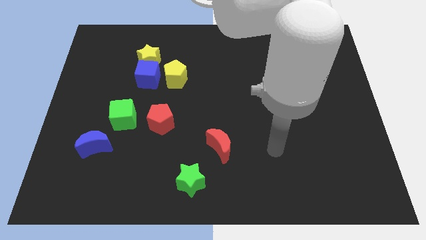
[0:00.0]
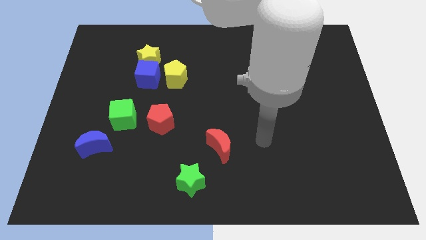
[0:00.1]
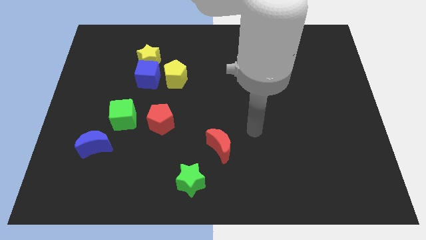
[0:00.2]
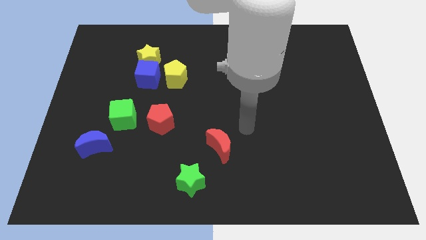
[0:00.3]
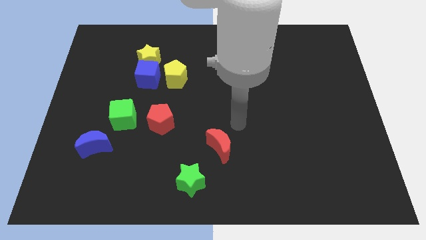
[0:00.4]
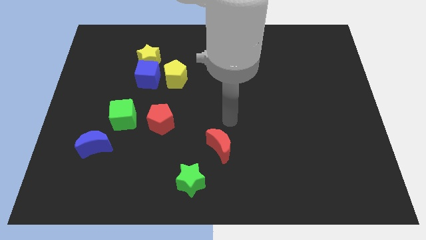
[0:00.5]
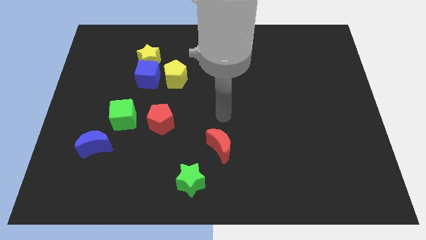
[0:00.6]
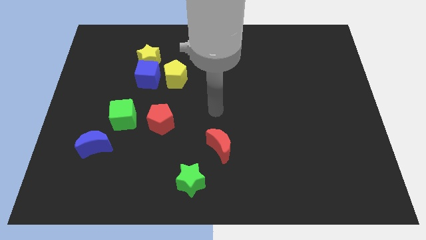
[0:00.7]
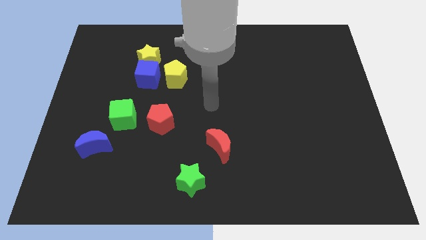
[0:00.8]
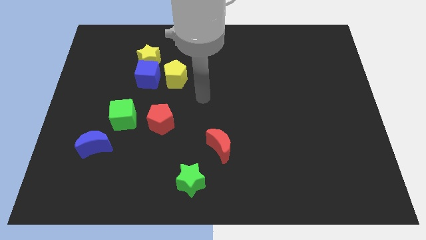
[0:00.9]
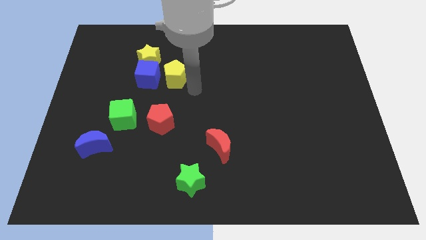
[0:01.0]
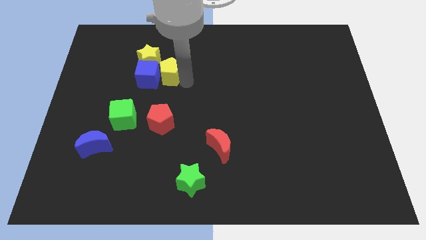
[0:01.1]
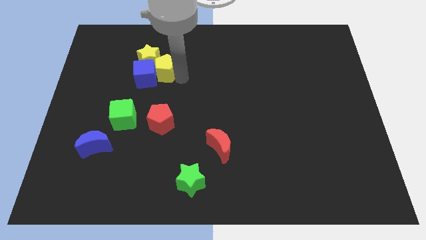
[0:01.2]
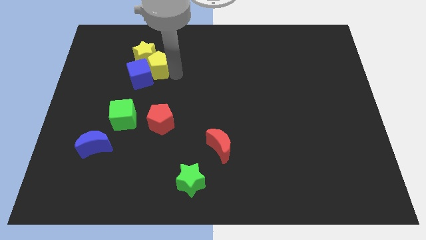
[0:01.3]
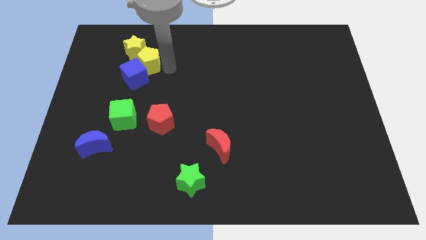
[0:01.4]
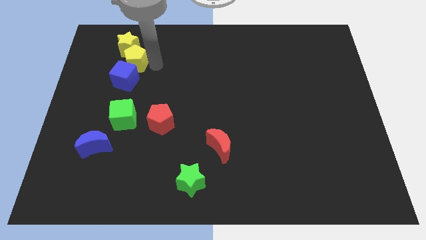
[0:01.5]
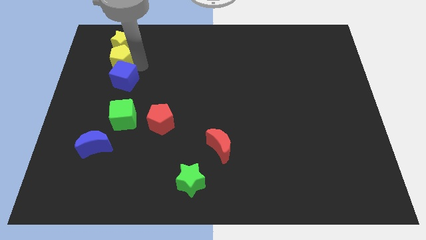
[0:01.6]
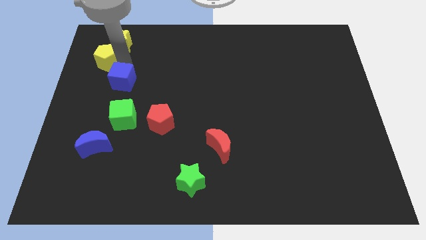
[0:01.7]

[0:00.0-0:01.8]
move the blue cube away from the yellow star and yellow pentagon

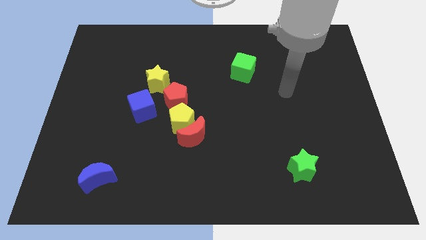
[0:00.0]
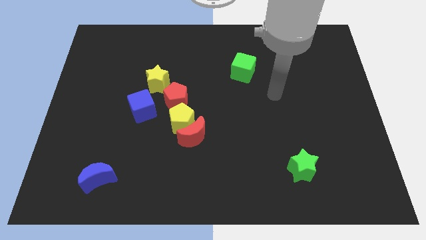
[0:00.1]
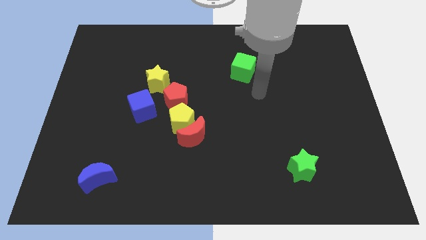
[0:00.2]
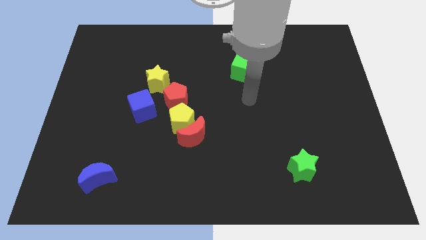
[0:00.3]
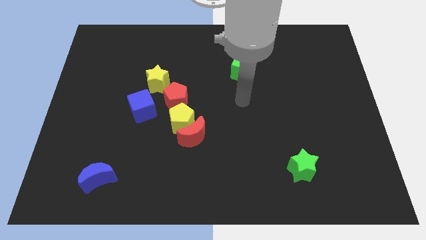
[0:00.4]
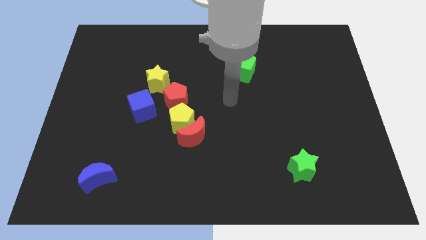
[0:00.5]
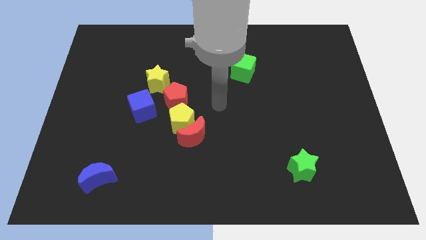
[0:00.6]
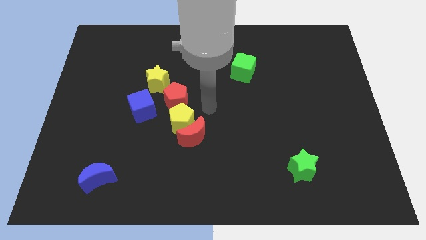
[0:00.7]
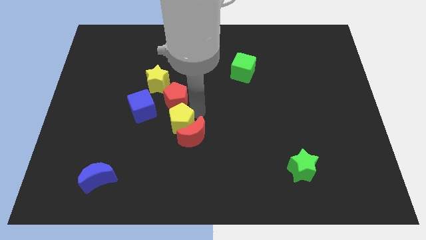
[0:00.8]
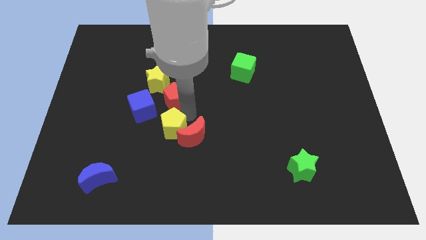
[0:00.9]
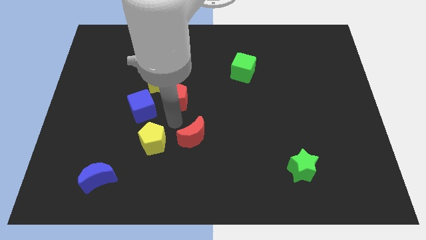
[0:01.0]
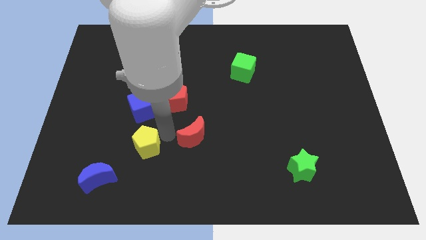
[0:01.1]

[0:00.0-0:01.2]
separate the red moon from the yellow pentagon

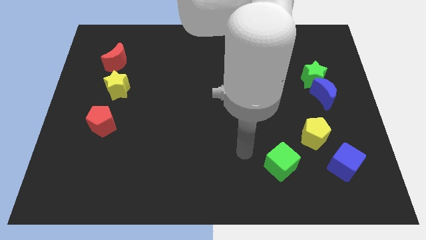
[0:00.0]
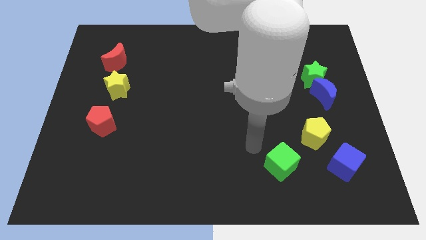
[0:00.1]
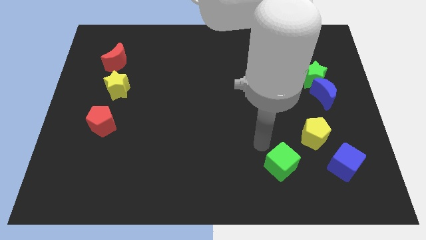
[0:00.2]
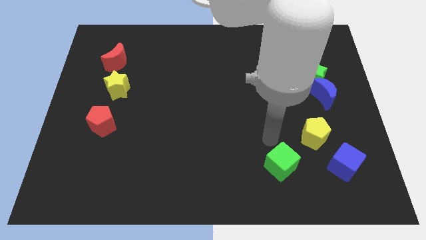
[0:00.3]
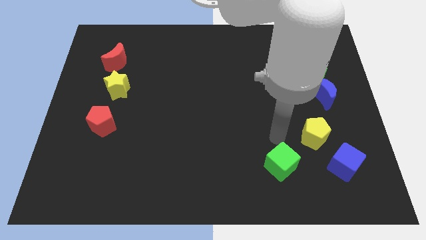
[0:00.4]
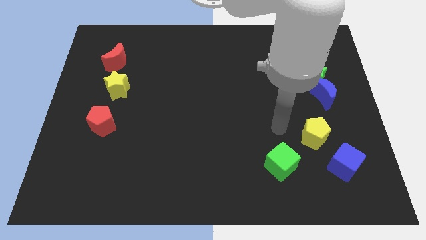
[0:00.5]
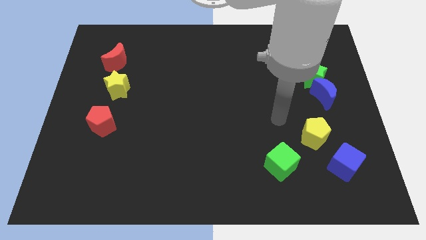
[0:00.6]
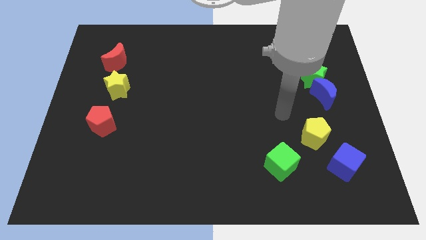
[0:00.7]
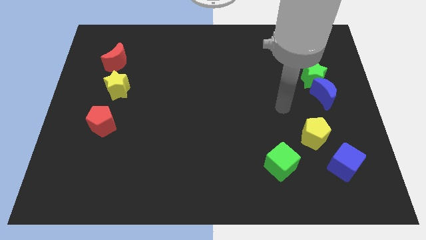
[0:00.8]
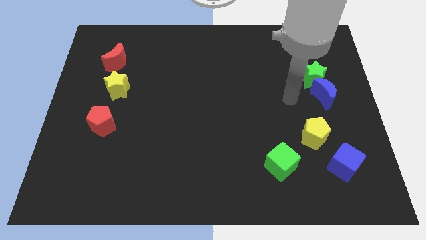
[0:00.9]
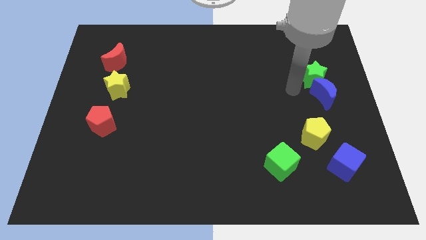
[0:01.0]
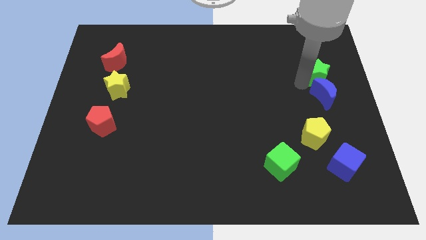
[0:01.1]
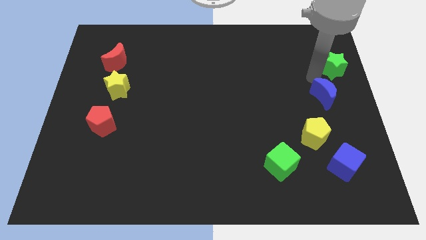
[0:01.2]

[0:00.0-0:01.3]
pull the blue moon apart from the green star

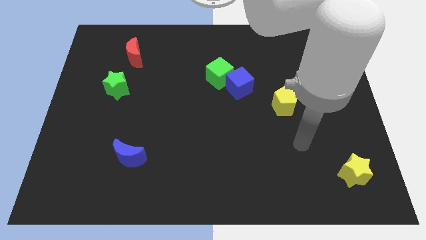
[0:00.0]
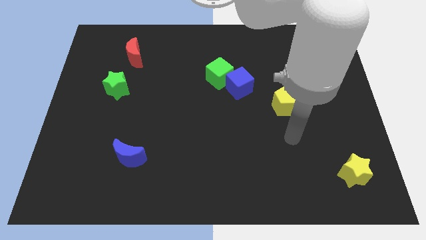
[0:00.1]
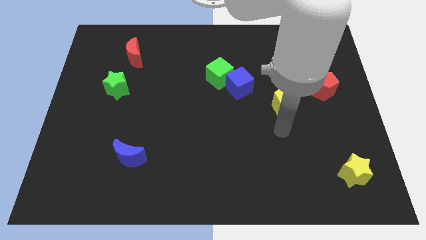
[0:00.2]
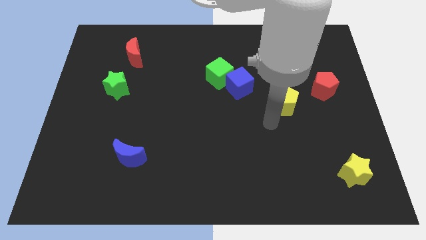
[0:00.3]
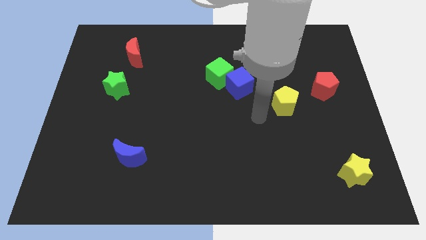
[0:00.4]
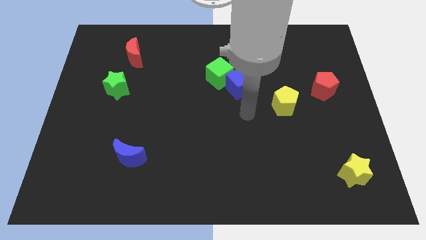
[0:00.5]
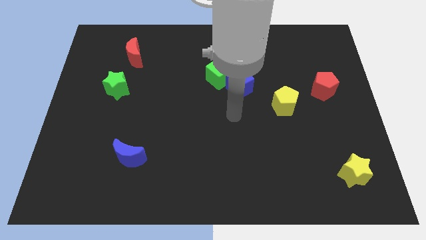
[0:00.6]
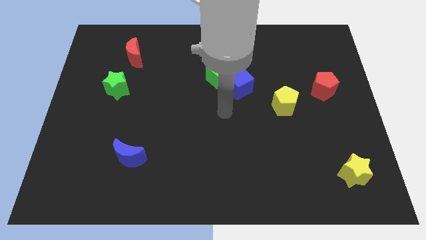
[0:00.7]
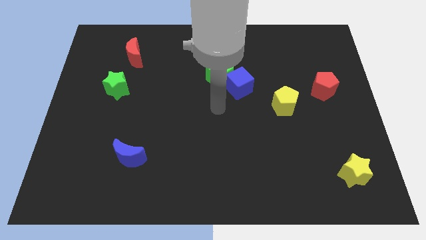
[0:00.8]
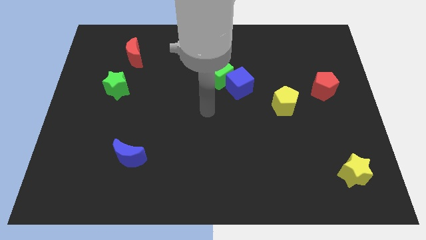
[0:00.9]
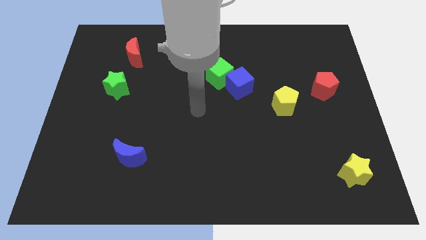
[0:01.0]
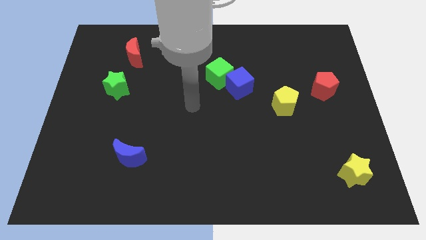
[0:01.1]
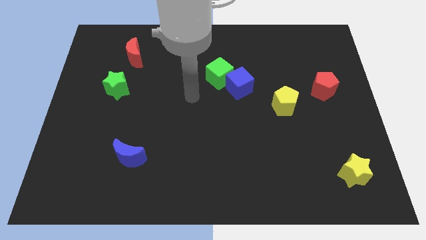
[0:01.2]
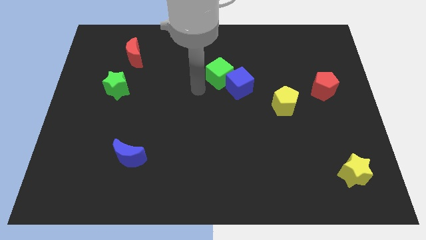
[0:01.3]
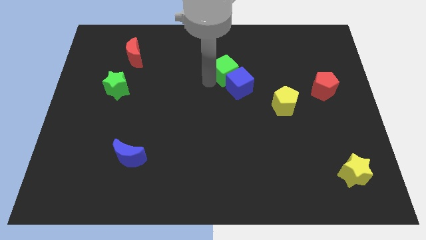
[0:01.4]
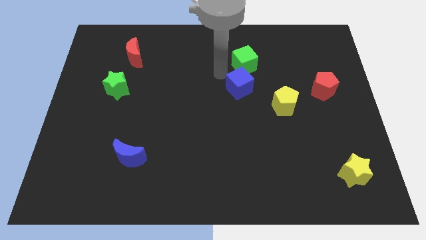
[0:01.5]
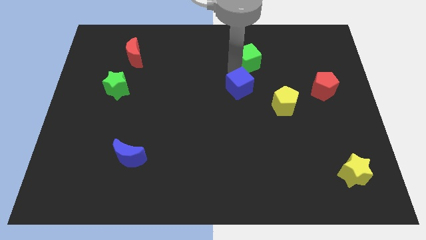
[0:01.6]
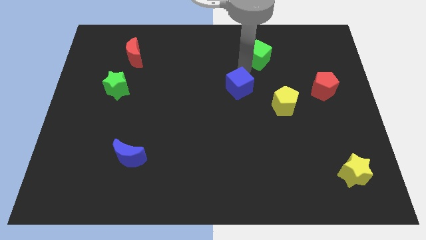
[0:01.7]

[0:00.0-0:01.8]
move the blue cube away from the green cube

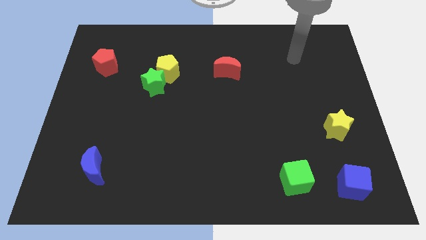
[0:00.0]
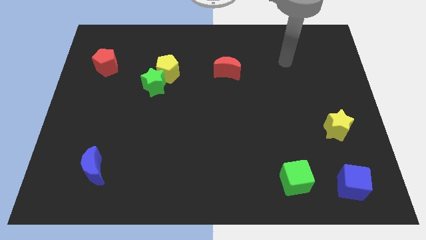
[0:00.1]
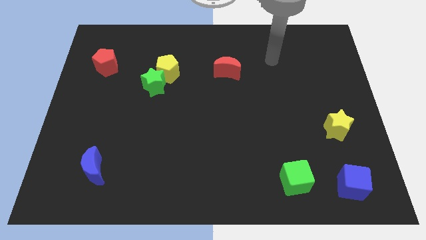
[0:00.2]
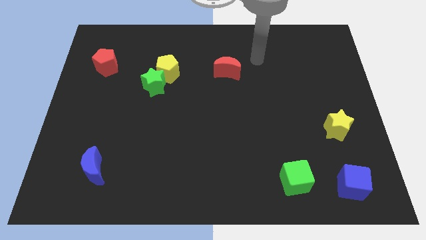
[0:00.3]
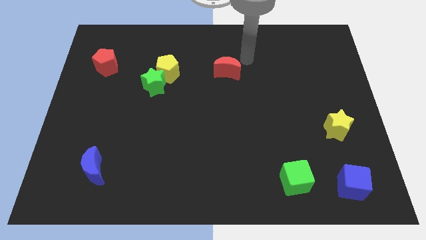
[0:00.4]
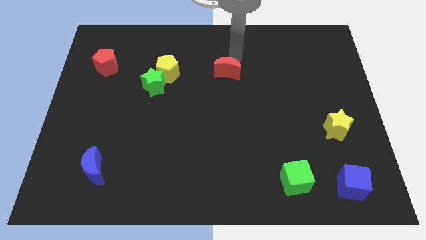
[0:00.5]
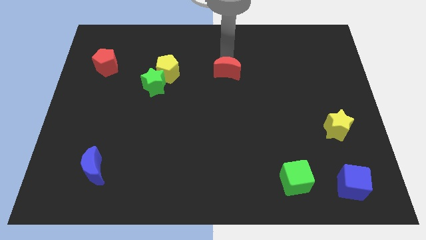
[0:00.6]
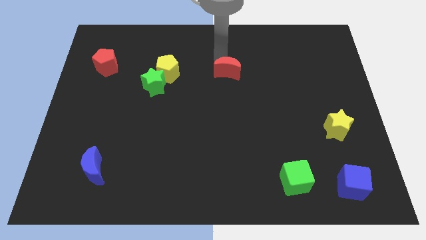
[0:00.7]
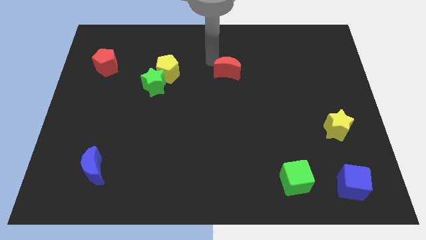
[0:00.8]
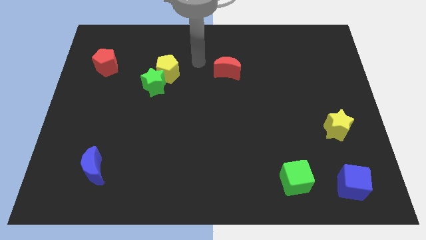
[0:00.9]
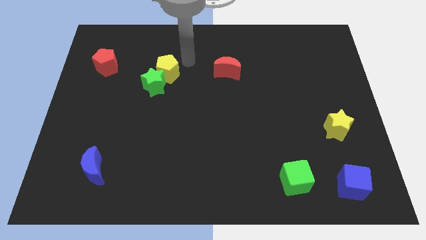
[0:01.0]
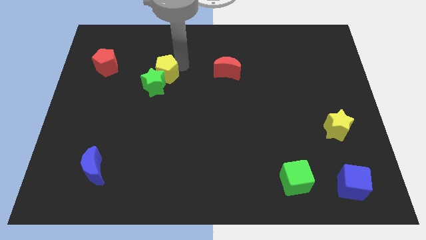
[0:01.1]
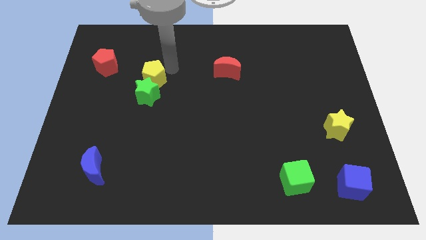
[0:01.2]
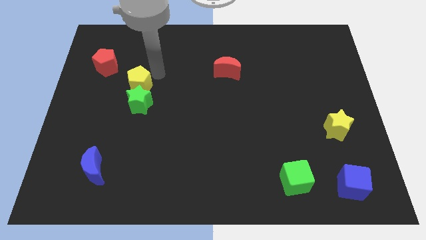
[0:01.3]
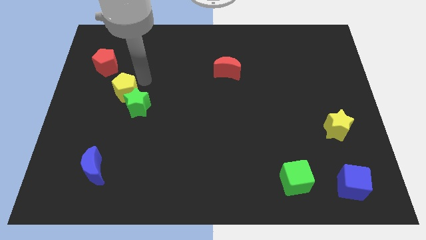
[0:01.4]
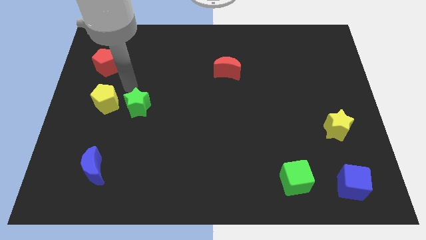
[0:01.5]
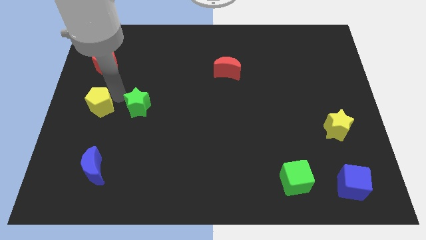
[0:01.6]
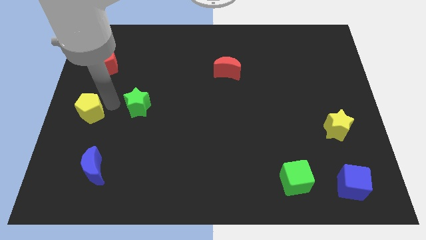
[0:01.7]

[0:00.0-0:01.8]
separate the green star from the yellow pentagon

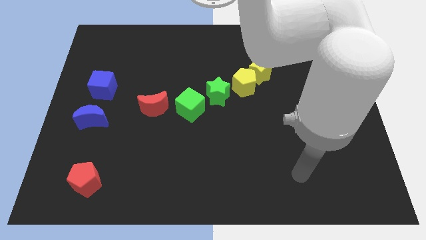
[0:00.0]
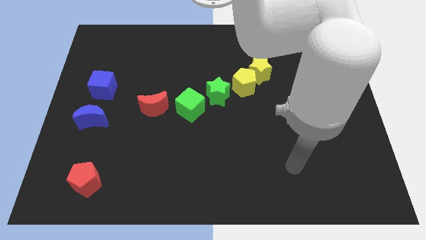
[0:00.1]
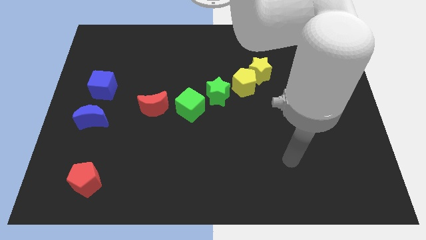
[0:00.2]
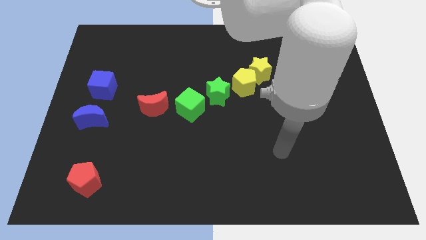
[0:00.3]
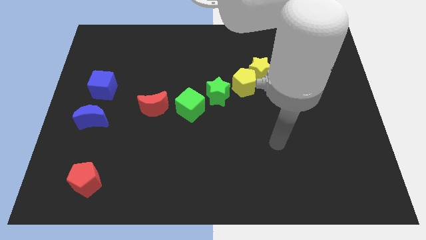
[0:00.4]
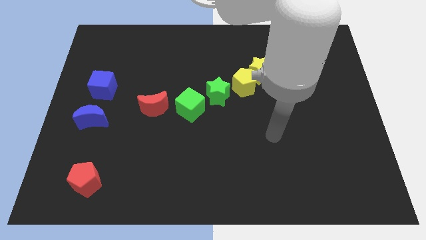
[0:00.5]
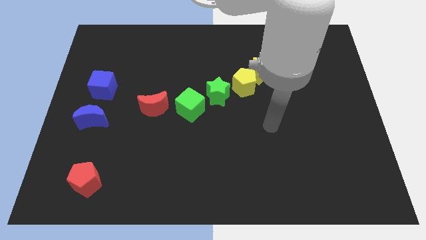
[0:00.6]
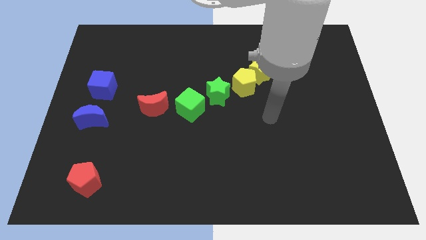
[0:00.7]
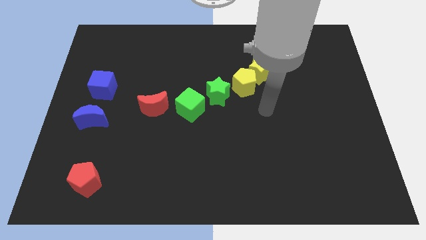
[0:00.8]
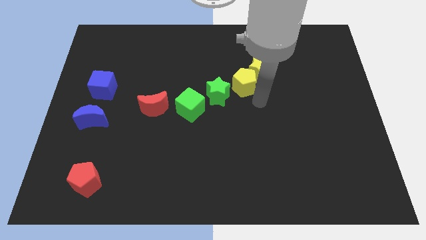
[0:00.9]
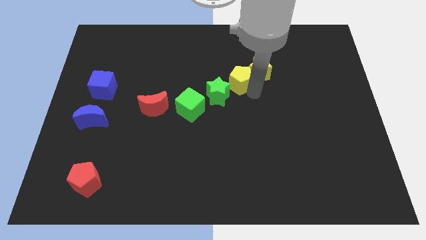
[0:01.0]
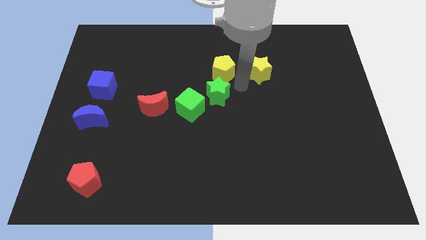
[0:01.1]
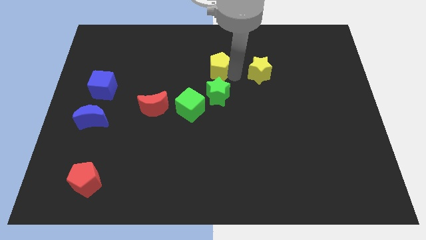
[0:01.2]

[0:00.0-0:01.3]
separate the yellow star from the yellow pentagon
